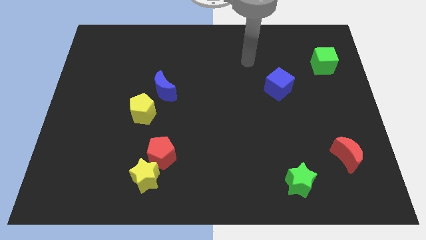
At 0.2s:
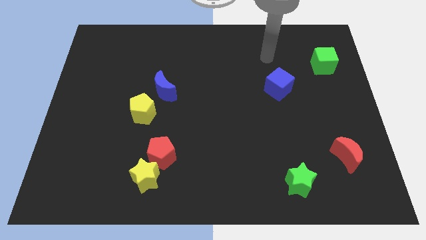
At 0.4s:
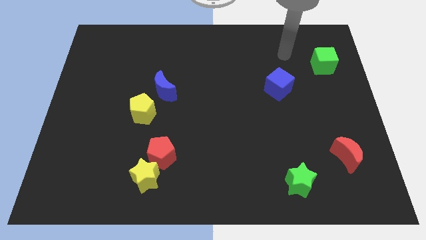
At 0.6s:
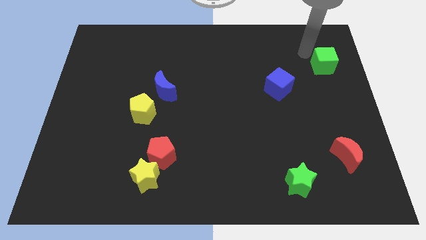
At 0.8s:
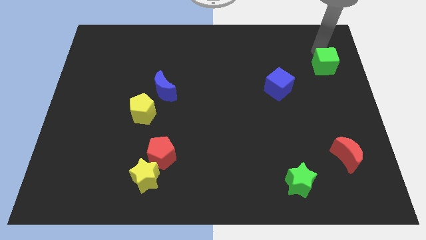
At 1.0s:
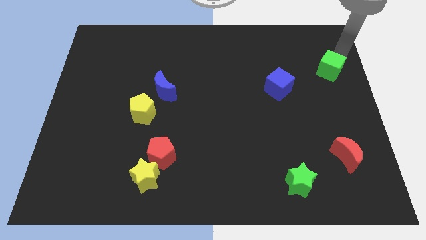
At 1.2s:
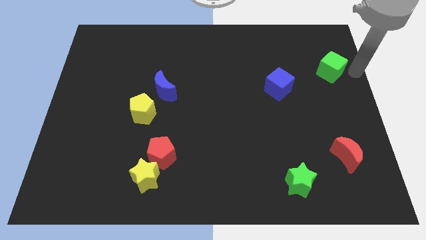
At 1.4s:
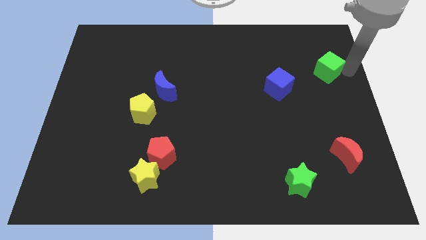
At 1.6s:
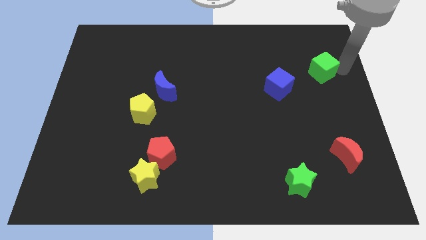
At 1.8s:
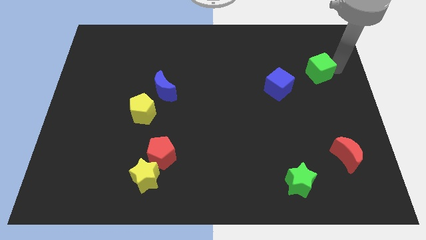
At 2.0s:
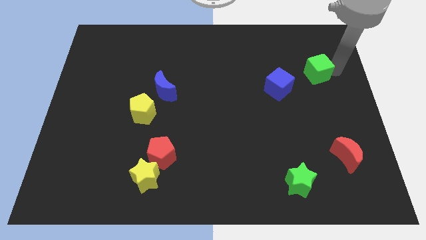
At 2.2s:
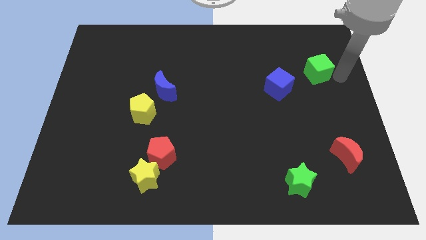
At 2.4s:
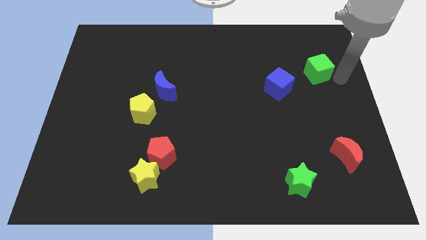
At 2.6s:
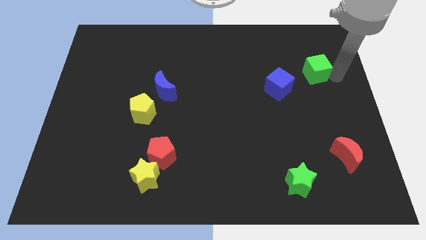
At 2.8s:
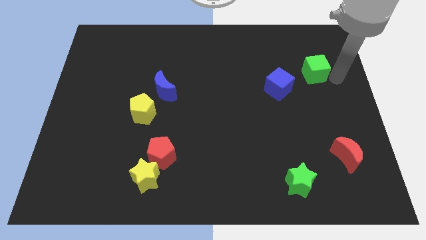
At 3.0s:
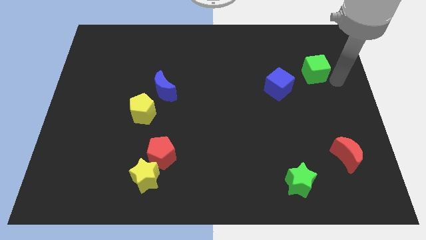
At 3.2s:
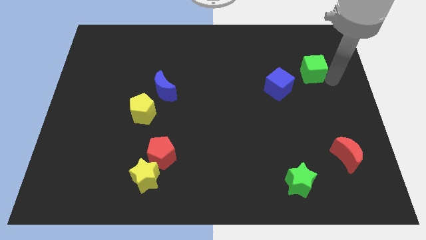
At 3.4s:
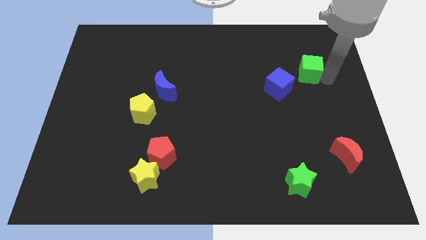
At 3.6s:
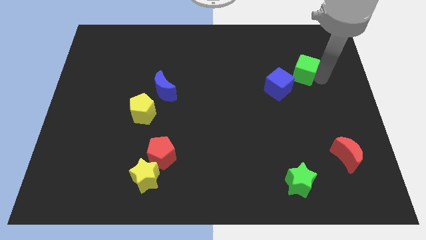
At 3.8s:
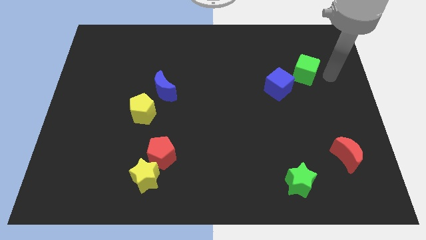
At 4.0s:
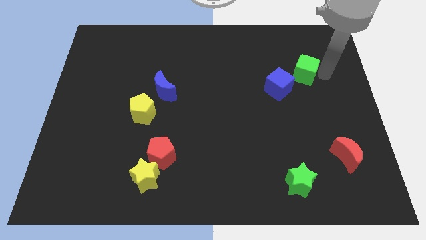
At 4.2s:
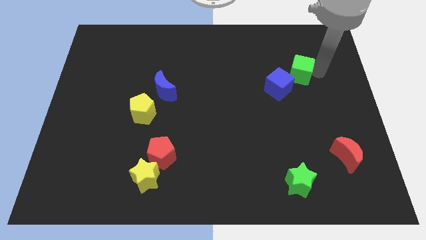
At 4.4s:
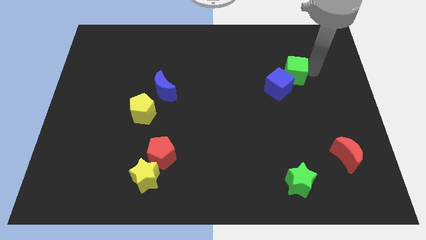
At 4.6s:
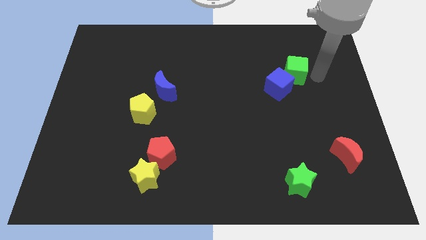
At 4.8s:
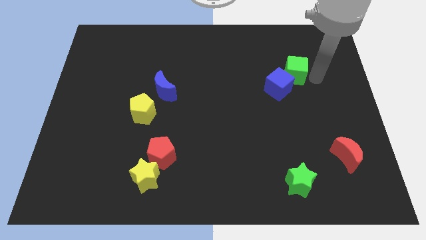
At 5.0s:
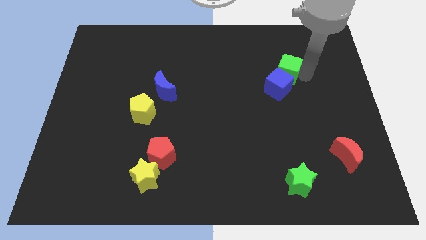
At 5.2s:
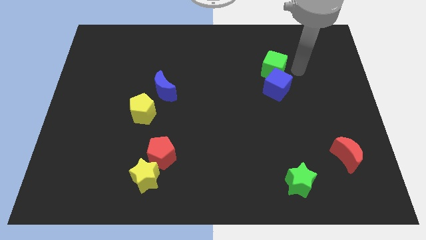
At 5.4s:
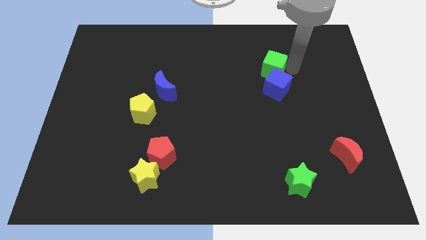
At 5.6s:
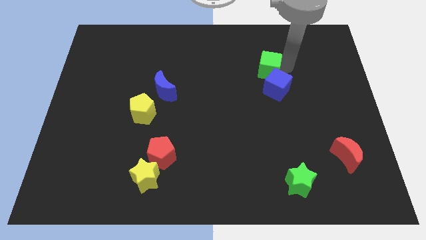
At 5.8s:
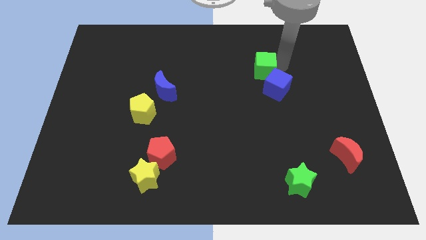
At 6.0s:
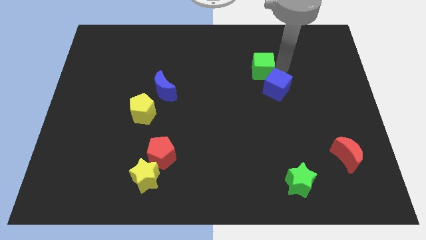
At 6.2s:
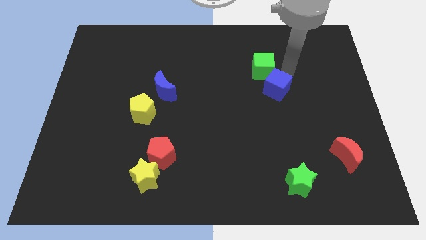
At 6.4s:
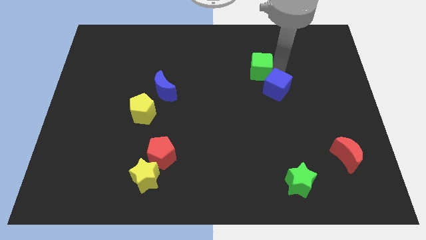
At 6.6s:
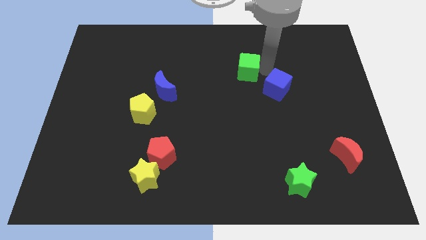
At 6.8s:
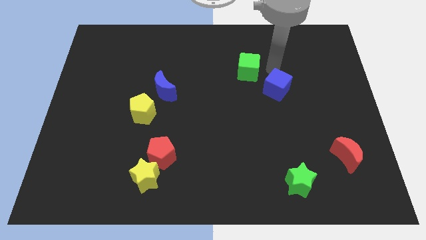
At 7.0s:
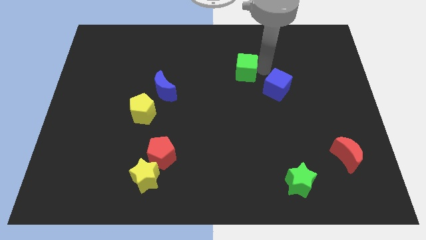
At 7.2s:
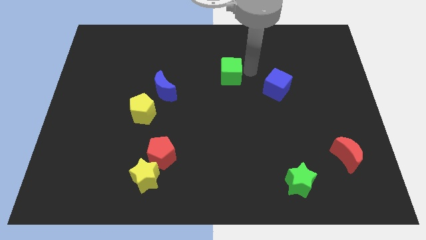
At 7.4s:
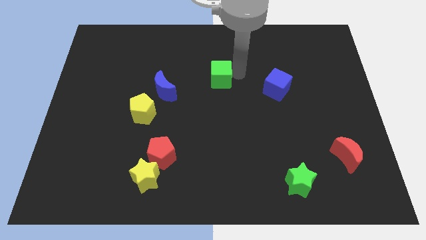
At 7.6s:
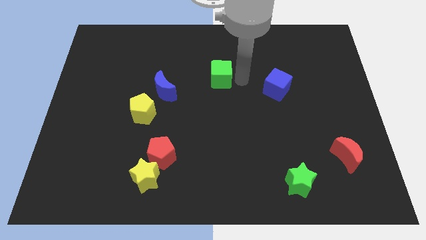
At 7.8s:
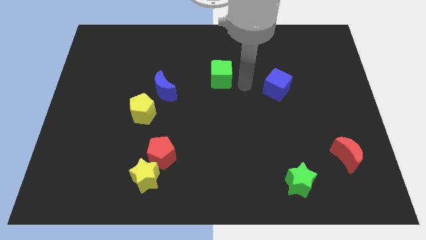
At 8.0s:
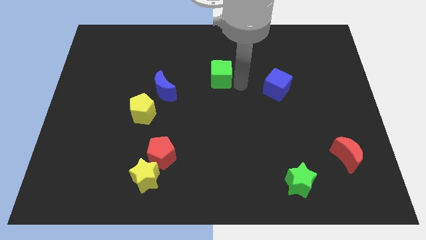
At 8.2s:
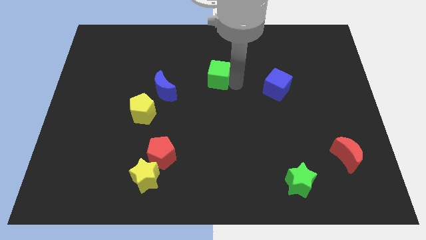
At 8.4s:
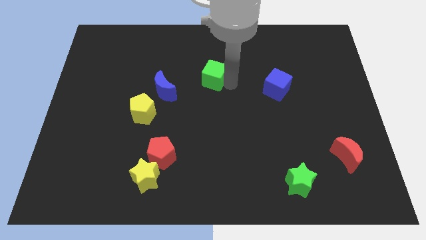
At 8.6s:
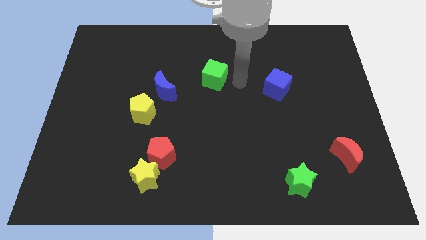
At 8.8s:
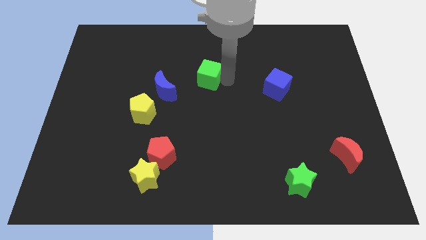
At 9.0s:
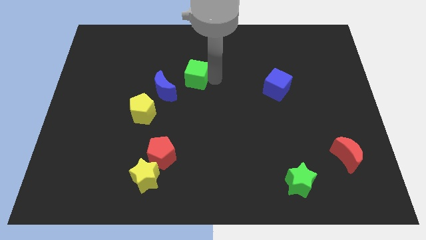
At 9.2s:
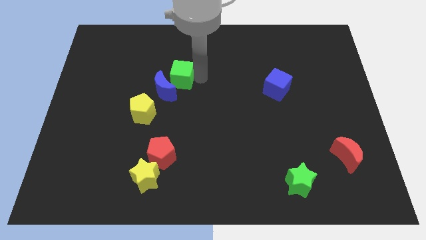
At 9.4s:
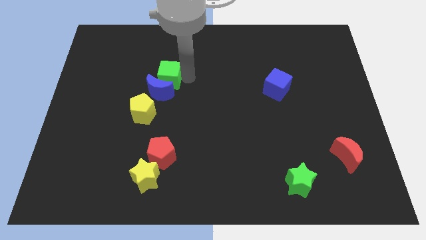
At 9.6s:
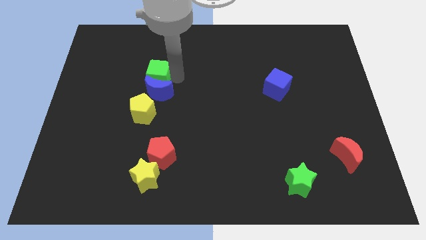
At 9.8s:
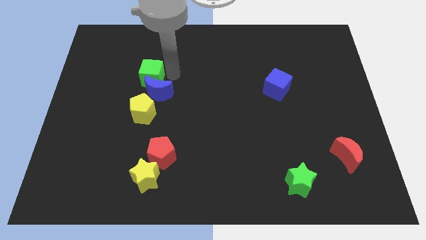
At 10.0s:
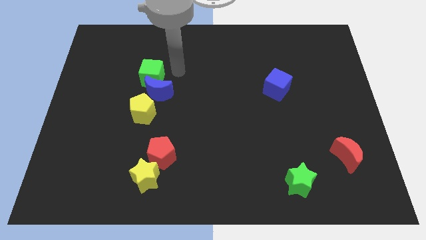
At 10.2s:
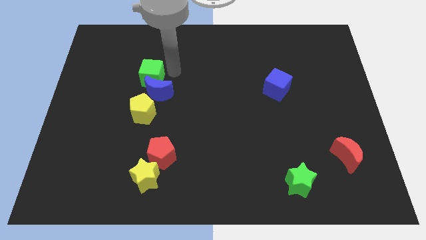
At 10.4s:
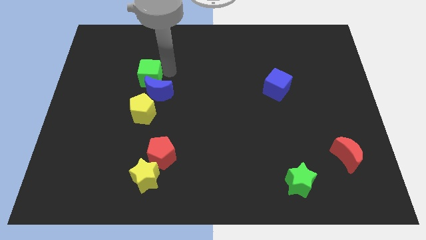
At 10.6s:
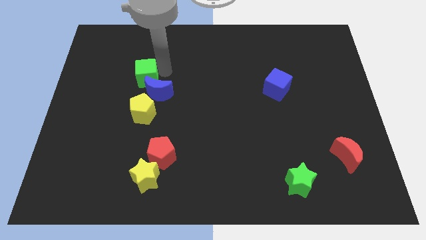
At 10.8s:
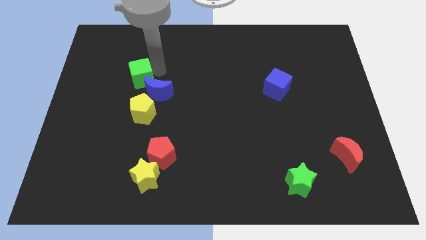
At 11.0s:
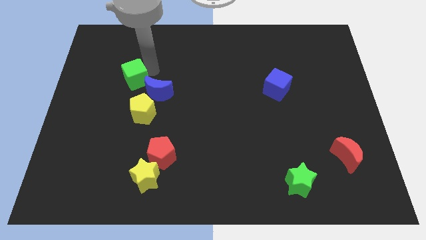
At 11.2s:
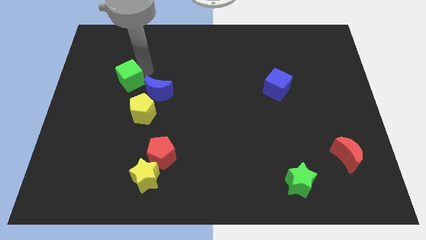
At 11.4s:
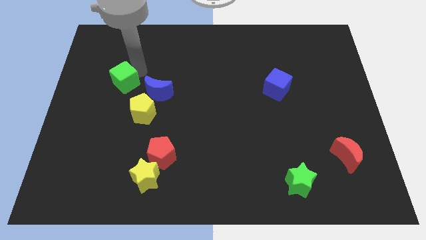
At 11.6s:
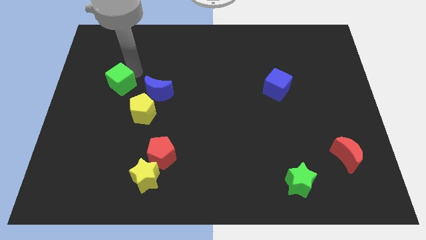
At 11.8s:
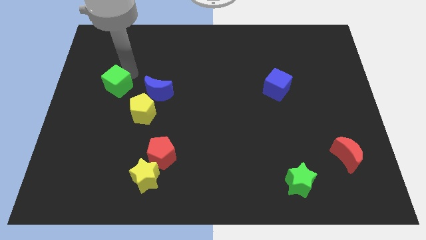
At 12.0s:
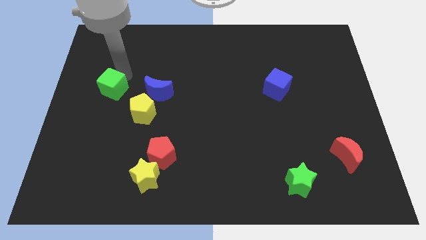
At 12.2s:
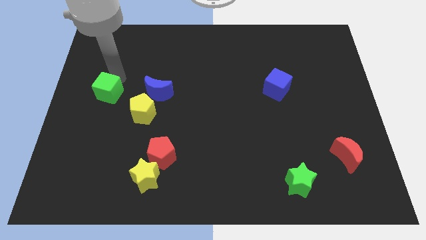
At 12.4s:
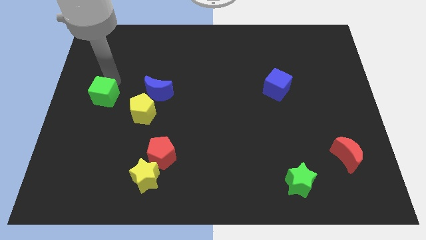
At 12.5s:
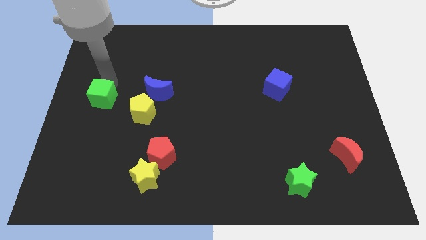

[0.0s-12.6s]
put the green cube just left of the yellow pentagon
